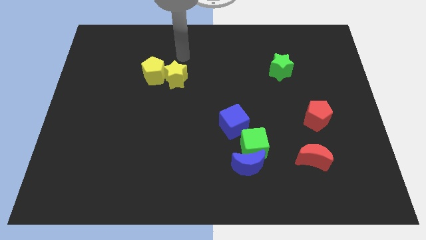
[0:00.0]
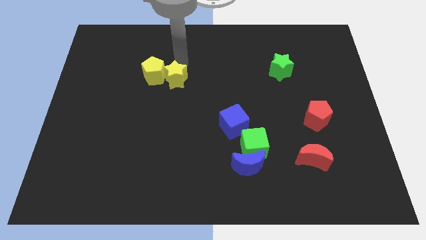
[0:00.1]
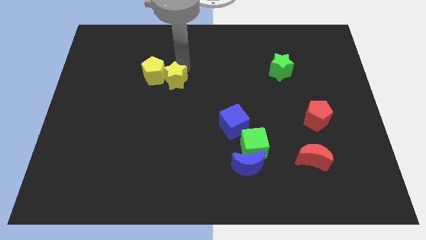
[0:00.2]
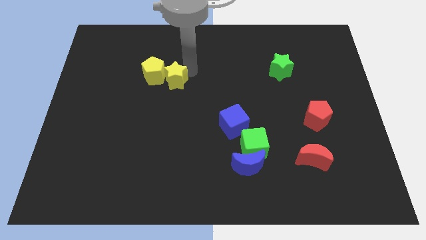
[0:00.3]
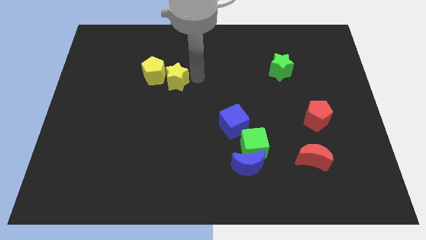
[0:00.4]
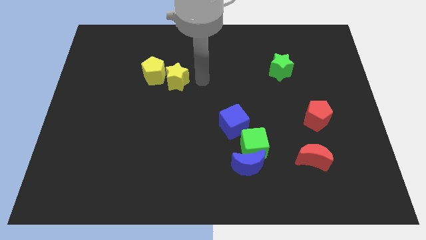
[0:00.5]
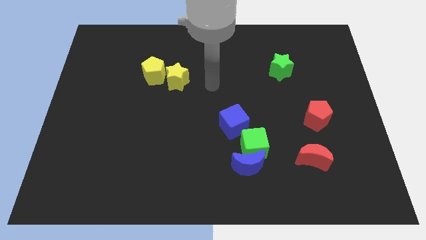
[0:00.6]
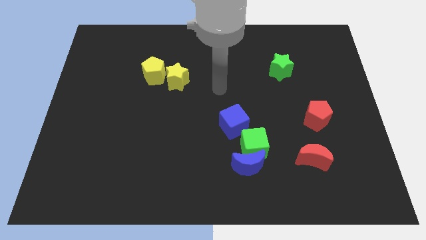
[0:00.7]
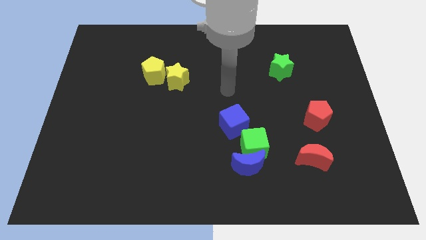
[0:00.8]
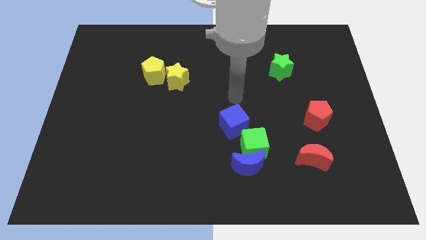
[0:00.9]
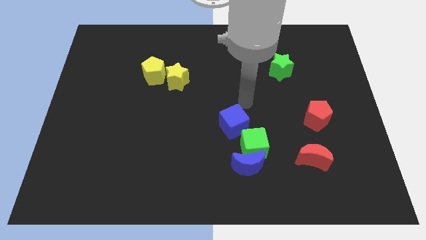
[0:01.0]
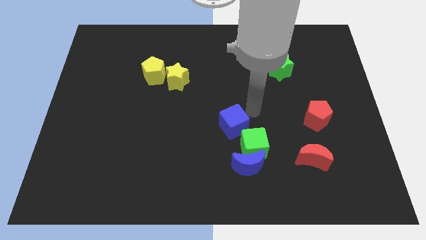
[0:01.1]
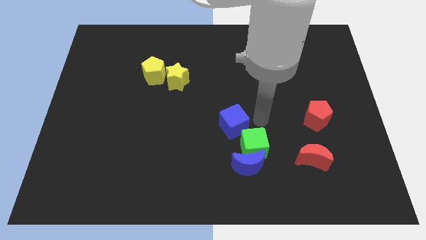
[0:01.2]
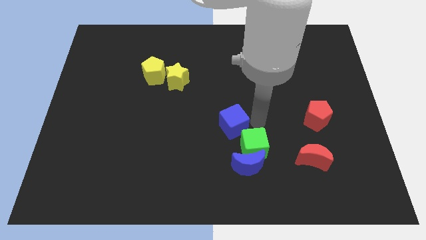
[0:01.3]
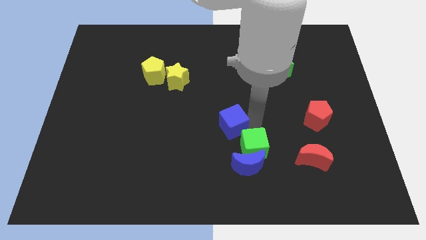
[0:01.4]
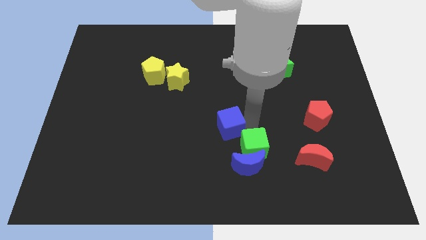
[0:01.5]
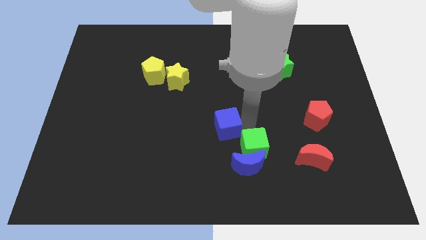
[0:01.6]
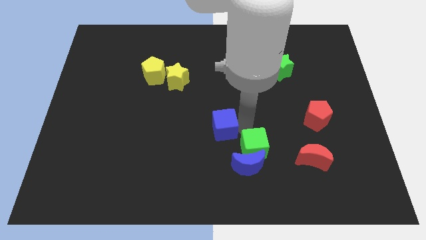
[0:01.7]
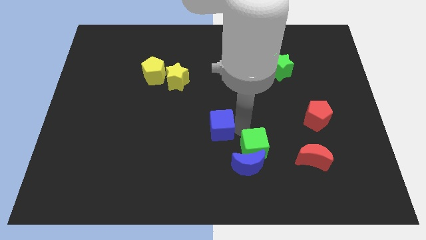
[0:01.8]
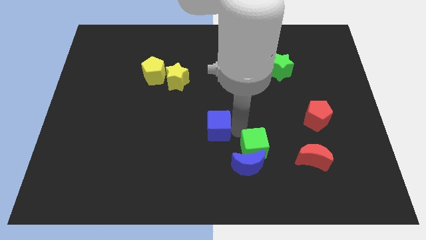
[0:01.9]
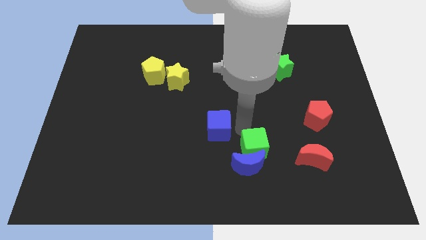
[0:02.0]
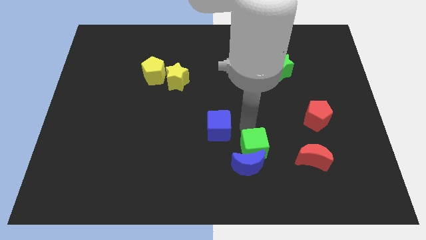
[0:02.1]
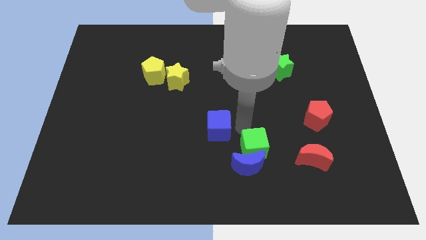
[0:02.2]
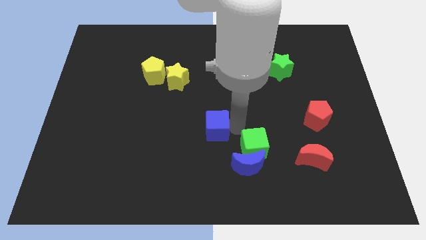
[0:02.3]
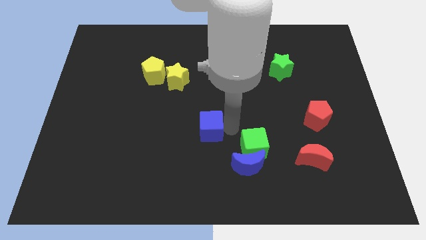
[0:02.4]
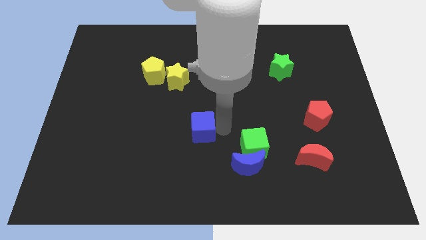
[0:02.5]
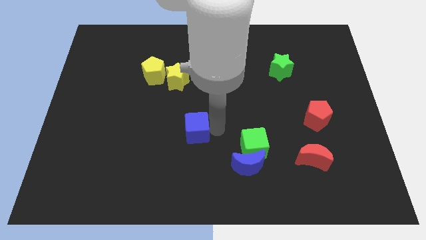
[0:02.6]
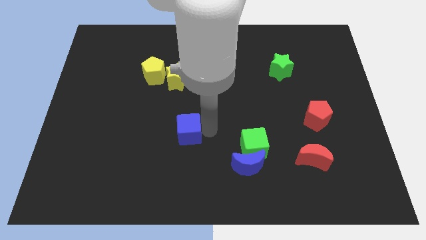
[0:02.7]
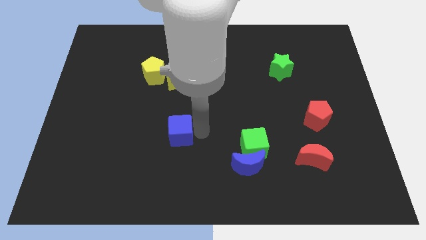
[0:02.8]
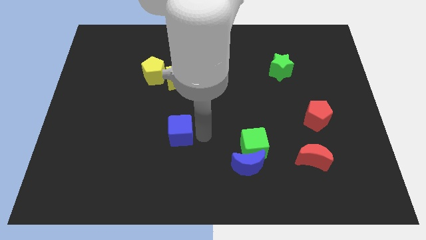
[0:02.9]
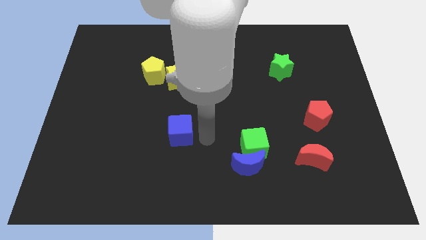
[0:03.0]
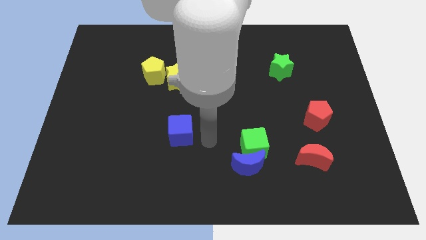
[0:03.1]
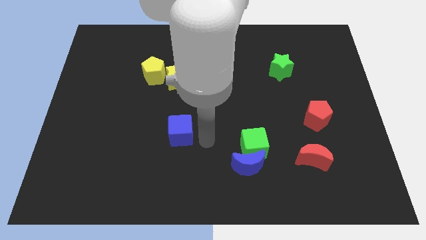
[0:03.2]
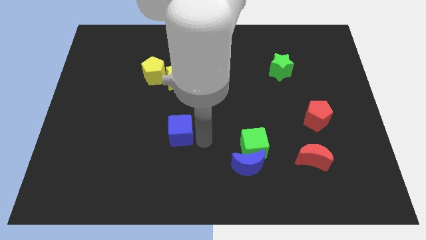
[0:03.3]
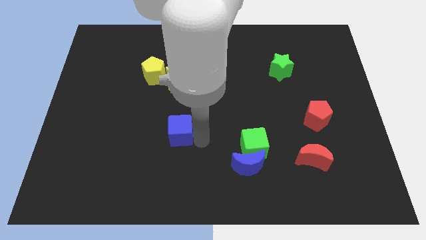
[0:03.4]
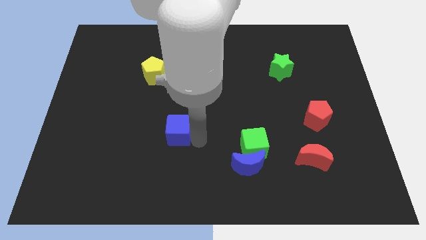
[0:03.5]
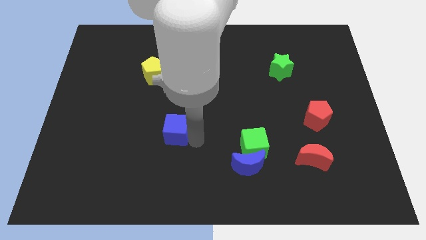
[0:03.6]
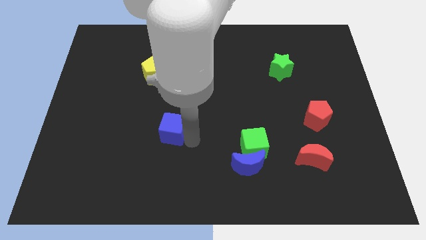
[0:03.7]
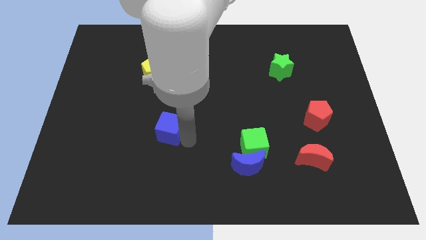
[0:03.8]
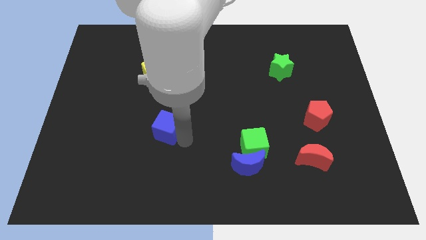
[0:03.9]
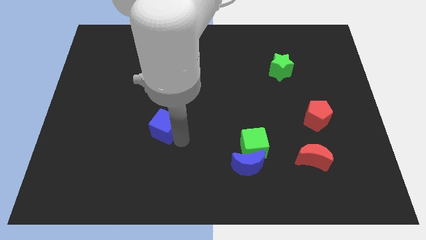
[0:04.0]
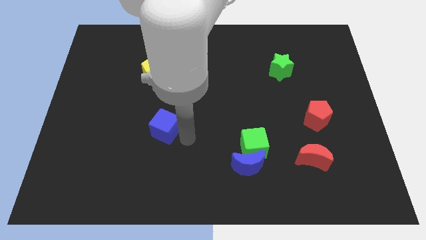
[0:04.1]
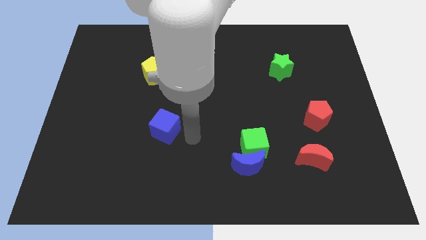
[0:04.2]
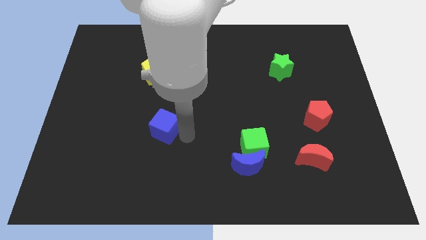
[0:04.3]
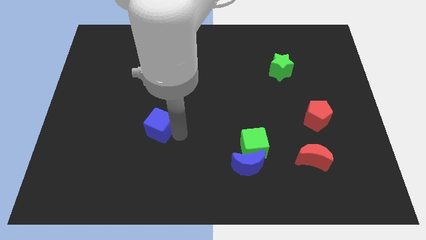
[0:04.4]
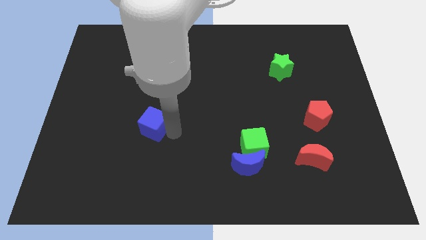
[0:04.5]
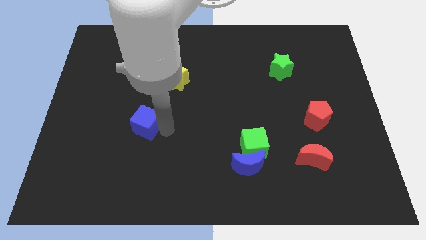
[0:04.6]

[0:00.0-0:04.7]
move the blue cube left

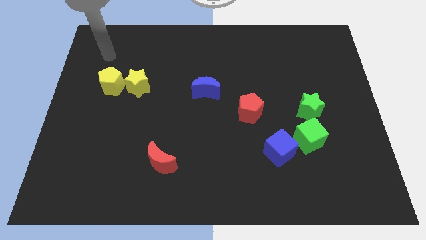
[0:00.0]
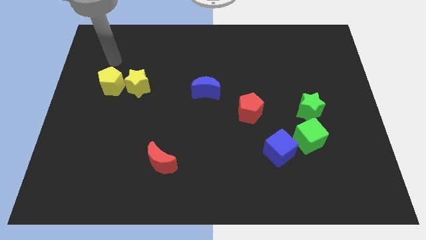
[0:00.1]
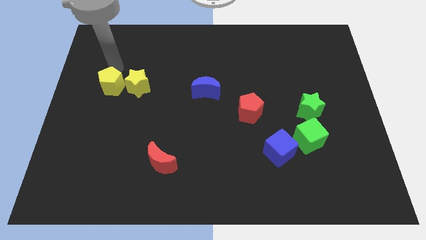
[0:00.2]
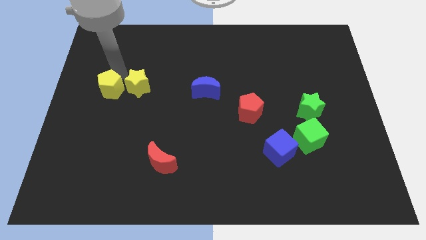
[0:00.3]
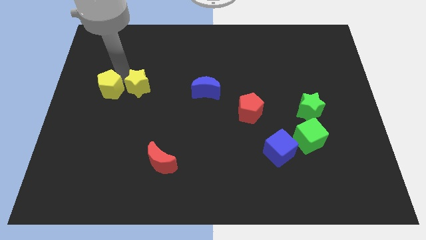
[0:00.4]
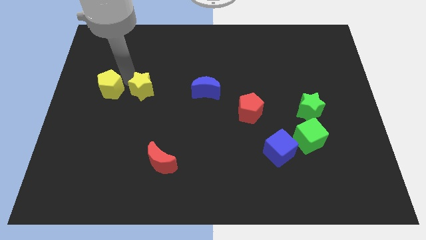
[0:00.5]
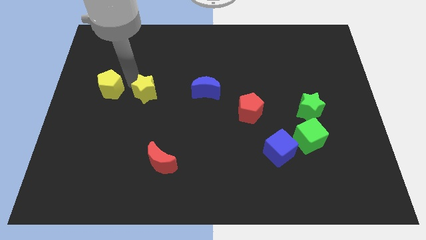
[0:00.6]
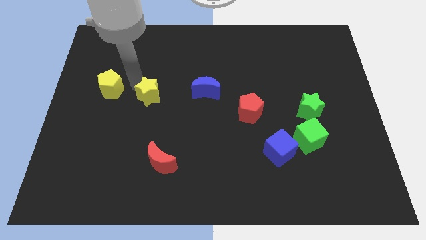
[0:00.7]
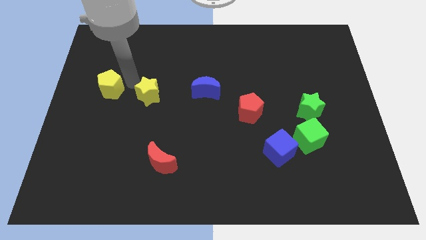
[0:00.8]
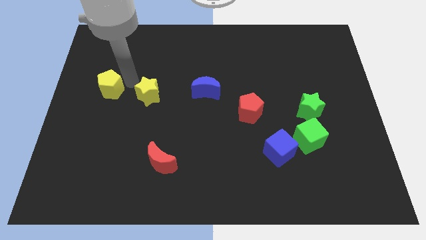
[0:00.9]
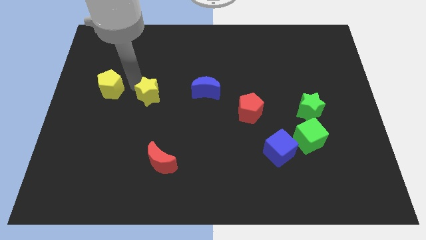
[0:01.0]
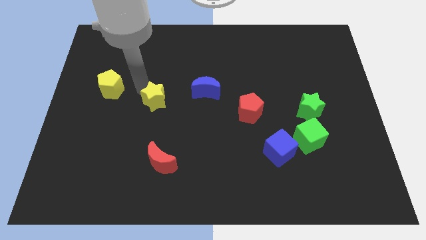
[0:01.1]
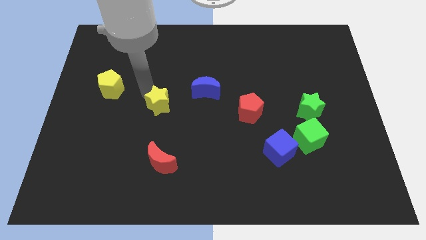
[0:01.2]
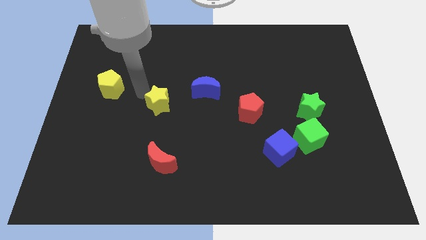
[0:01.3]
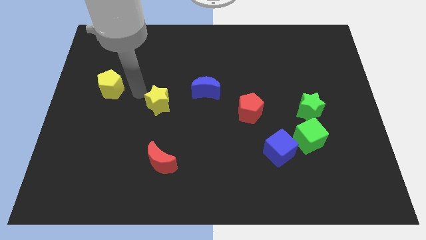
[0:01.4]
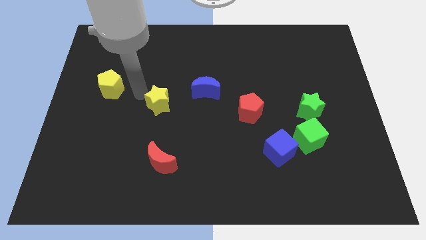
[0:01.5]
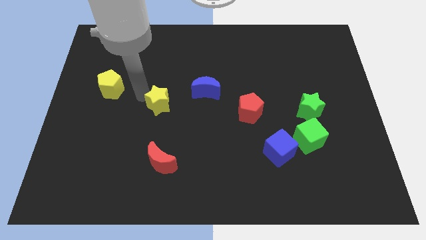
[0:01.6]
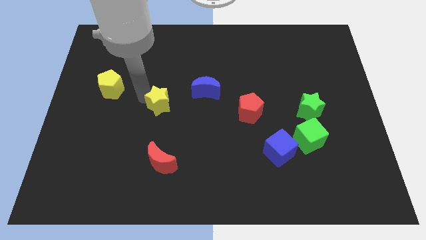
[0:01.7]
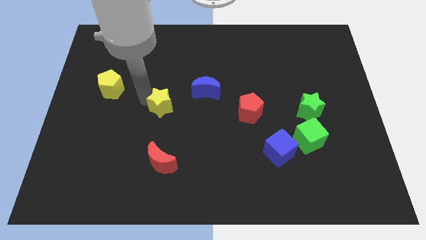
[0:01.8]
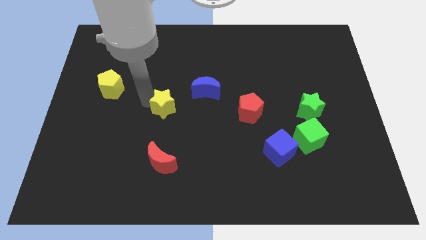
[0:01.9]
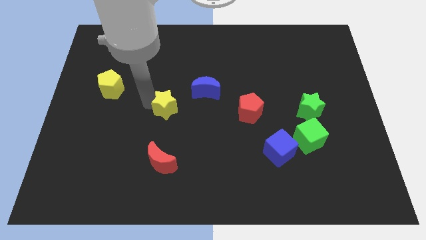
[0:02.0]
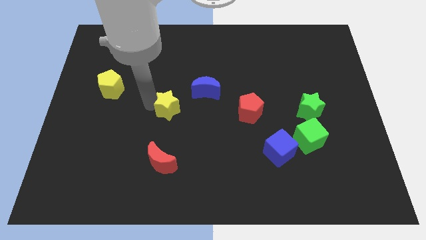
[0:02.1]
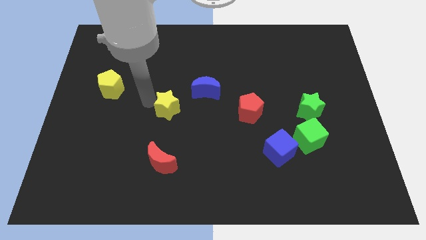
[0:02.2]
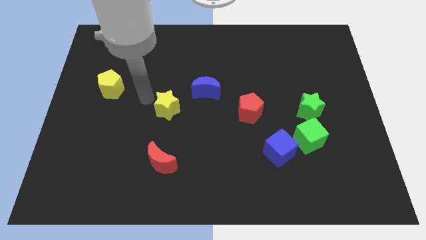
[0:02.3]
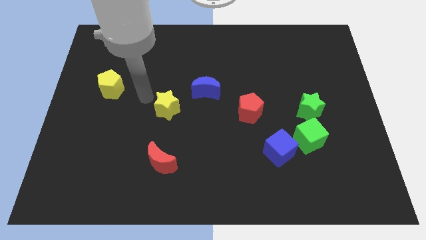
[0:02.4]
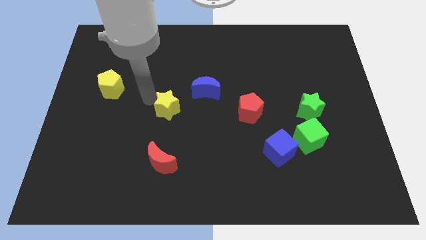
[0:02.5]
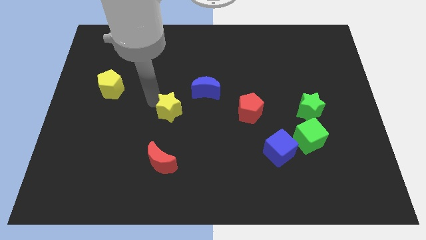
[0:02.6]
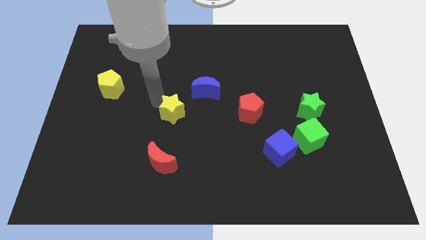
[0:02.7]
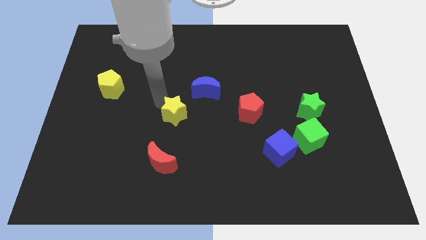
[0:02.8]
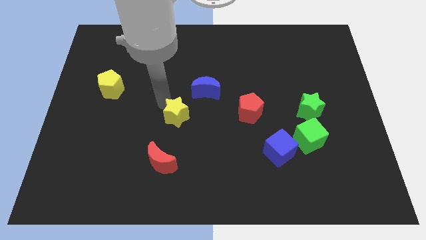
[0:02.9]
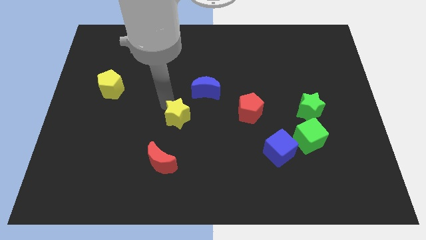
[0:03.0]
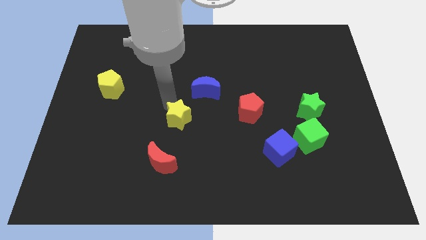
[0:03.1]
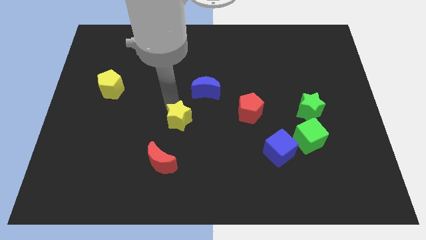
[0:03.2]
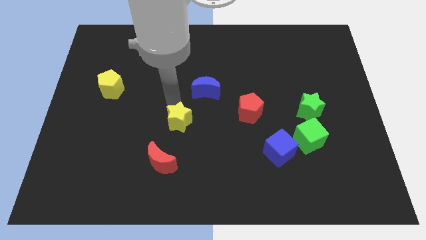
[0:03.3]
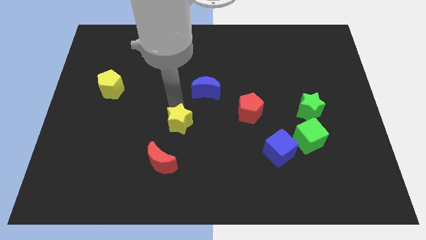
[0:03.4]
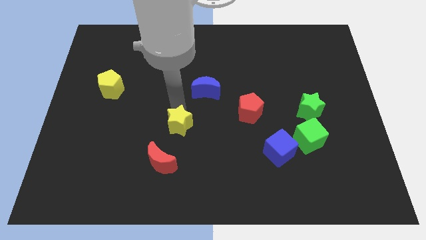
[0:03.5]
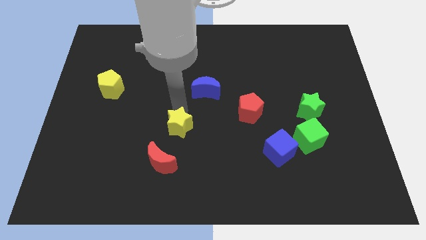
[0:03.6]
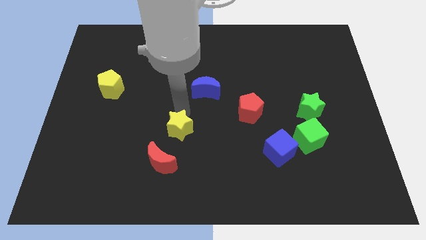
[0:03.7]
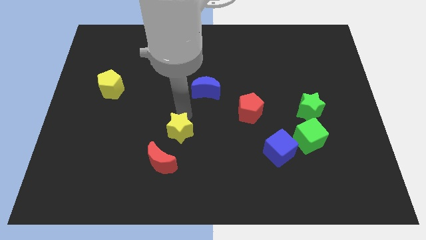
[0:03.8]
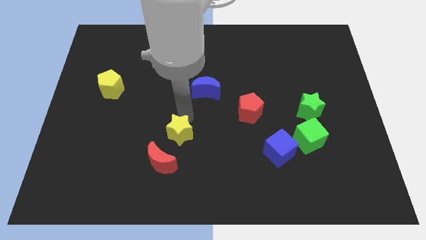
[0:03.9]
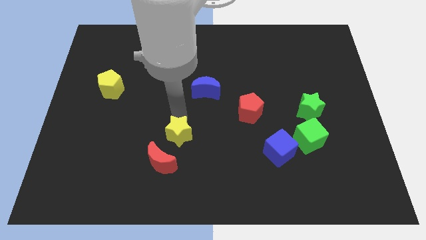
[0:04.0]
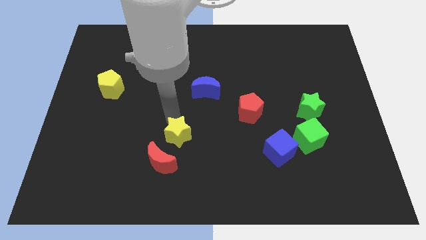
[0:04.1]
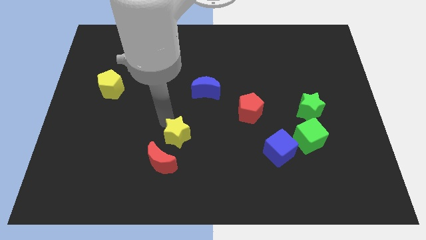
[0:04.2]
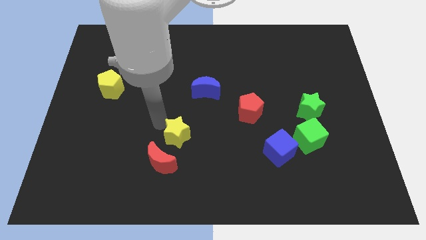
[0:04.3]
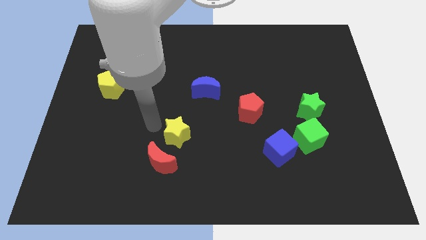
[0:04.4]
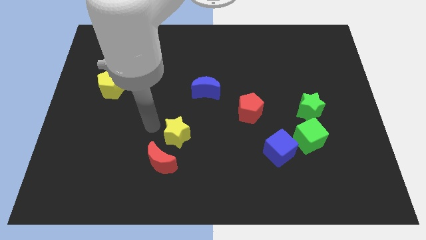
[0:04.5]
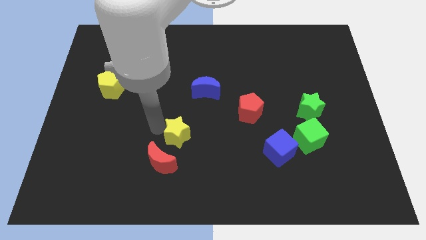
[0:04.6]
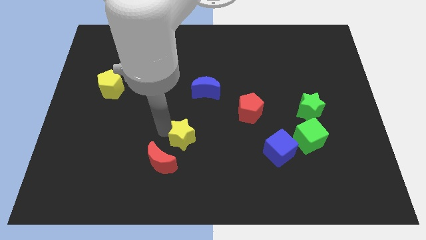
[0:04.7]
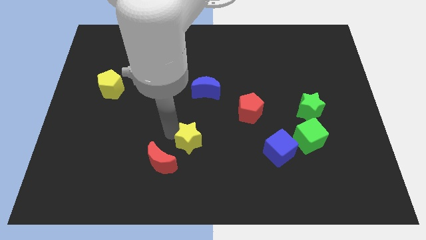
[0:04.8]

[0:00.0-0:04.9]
push the yellow star down and to the right diagonally
